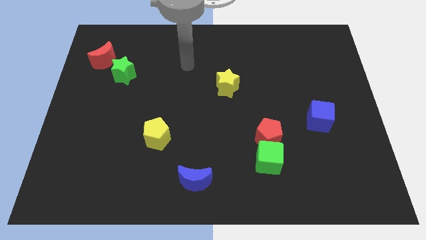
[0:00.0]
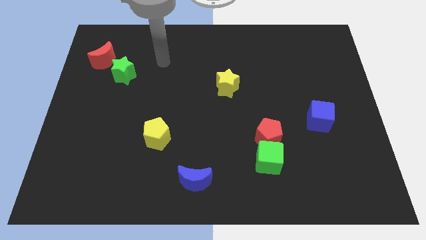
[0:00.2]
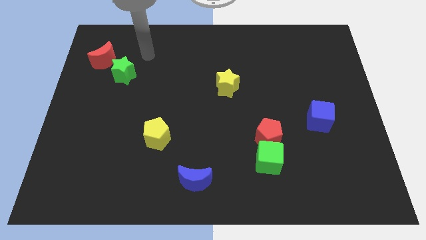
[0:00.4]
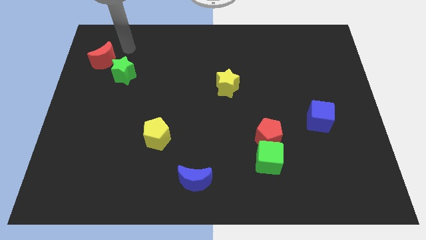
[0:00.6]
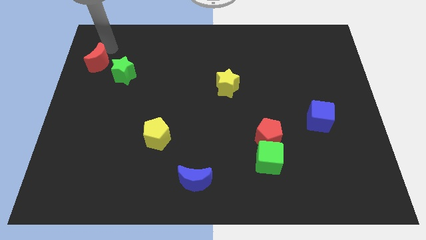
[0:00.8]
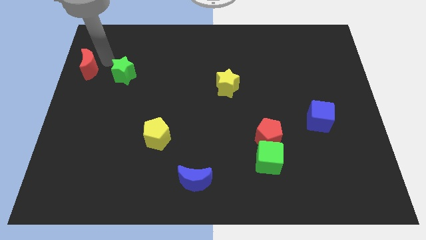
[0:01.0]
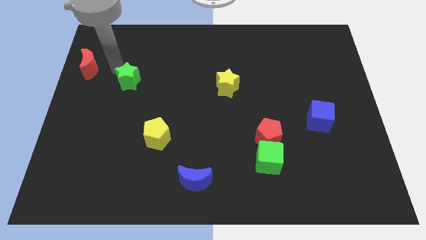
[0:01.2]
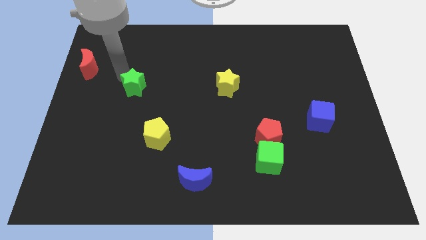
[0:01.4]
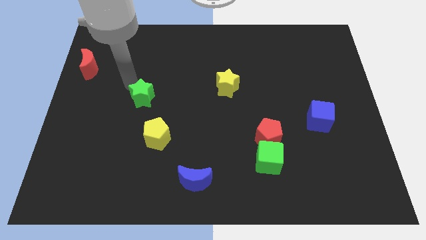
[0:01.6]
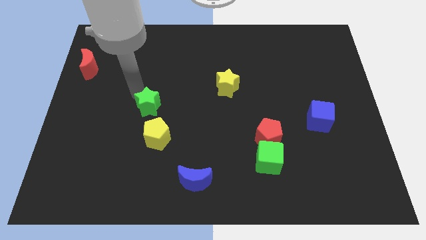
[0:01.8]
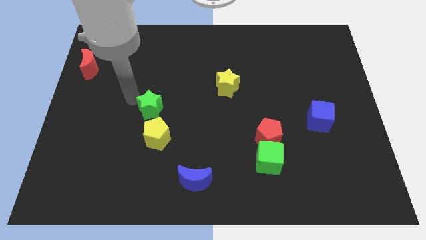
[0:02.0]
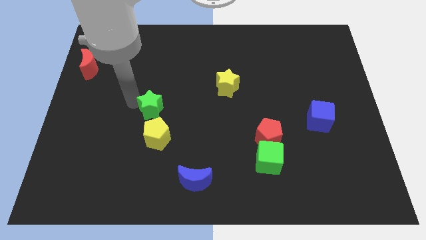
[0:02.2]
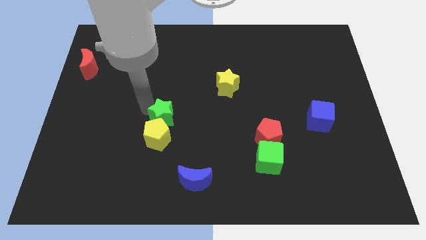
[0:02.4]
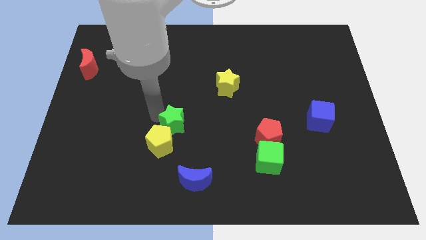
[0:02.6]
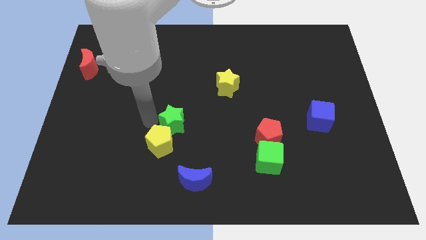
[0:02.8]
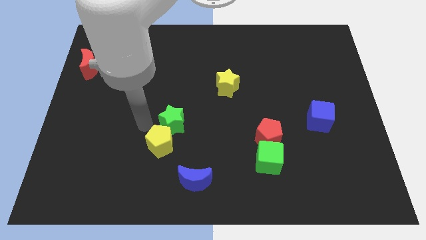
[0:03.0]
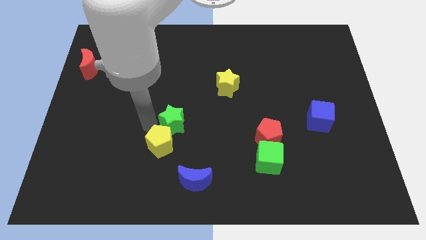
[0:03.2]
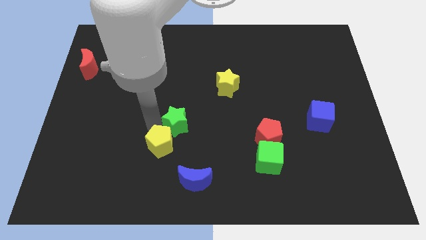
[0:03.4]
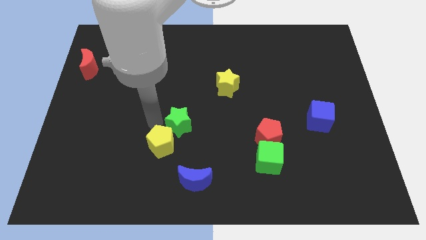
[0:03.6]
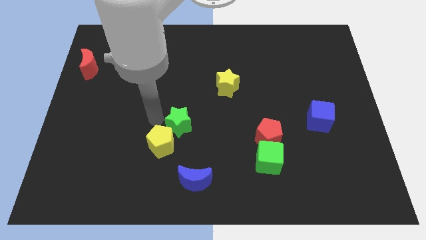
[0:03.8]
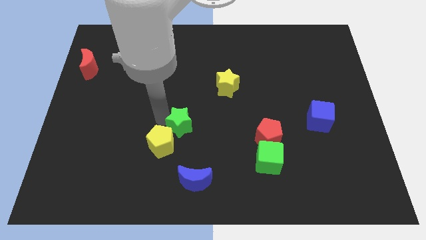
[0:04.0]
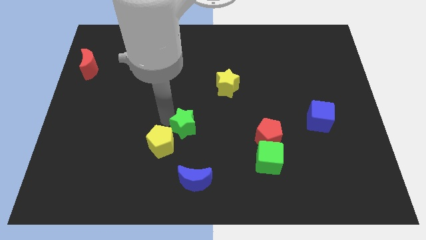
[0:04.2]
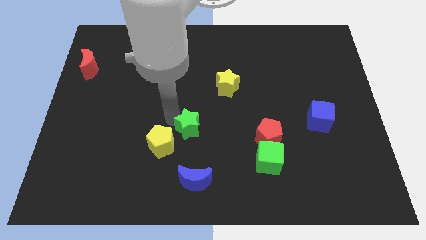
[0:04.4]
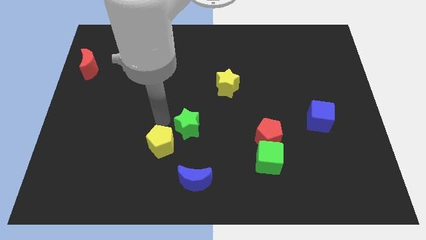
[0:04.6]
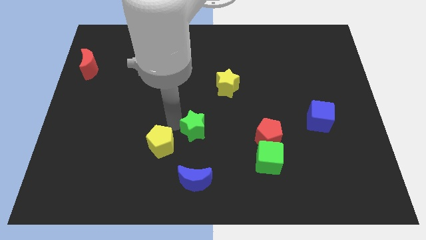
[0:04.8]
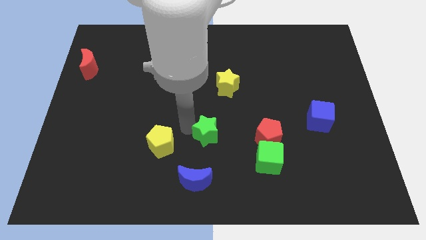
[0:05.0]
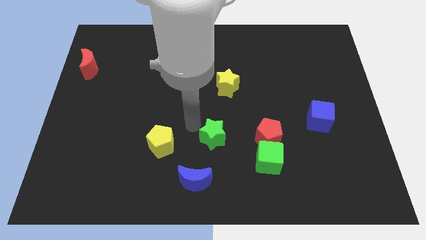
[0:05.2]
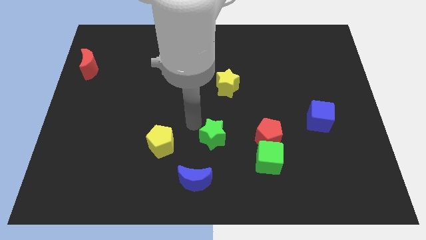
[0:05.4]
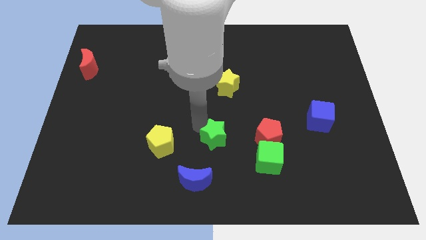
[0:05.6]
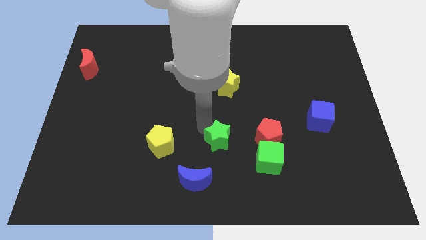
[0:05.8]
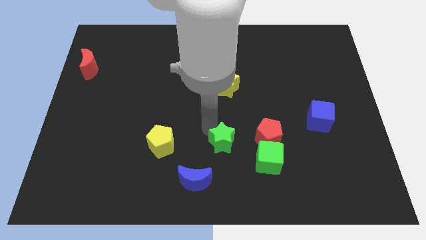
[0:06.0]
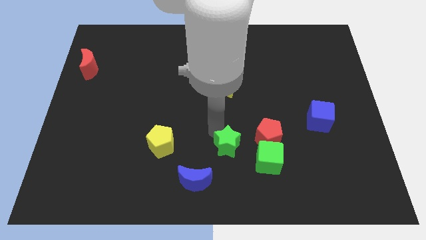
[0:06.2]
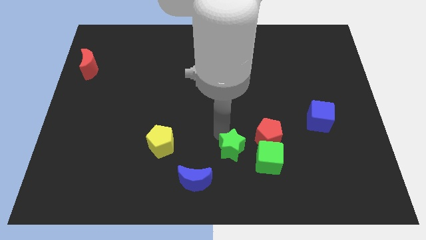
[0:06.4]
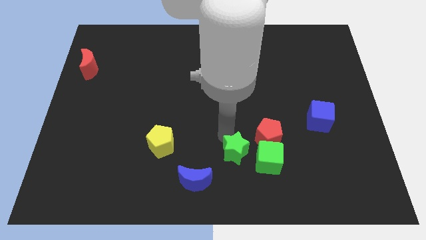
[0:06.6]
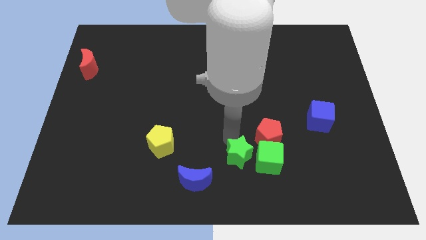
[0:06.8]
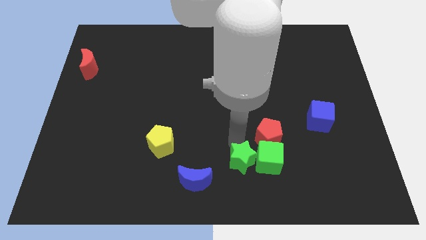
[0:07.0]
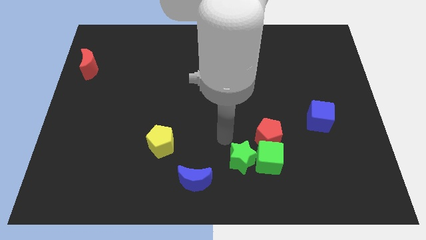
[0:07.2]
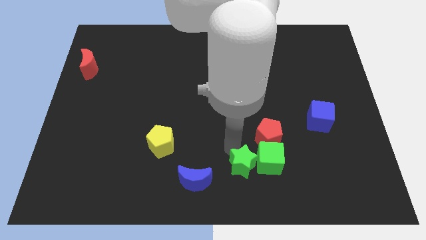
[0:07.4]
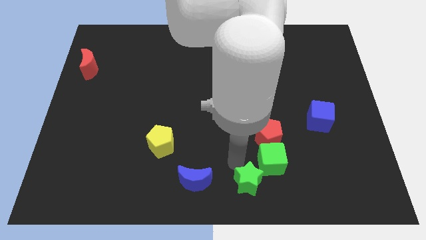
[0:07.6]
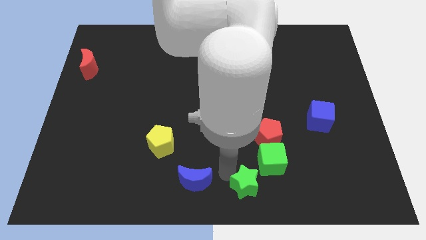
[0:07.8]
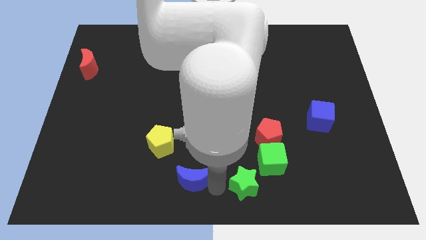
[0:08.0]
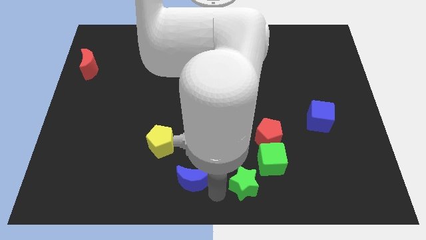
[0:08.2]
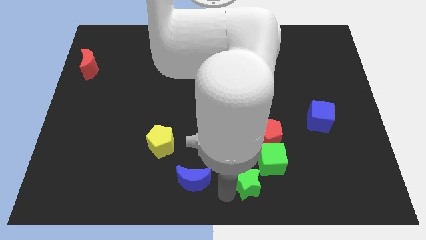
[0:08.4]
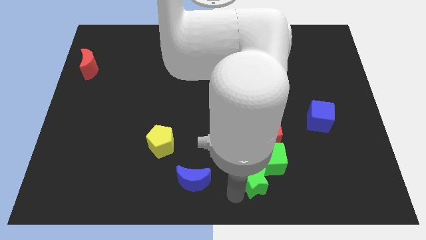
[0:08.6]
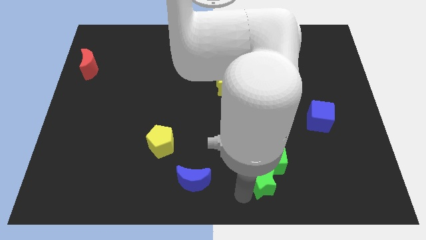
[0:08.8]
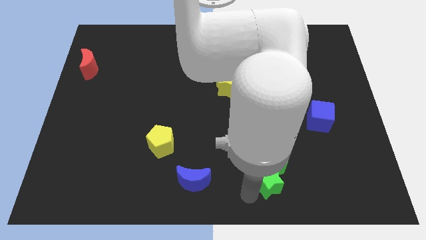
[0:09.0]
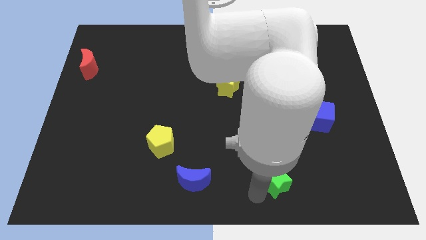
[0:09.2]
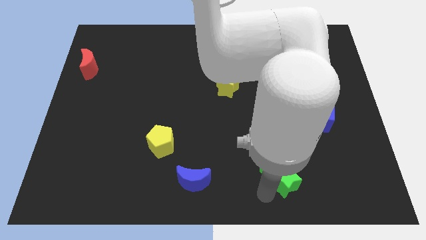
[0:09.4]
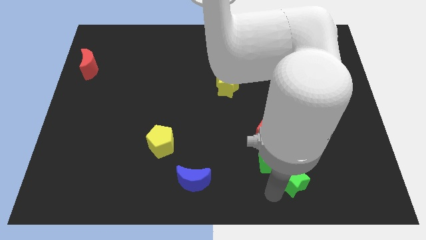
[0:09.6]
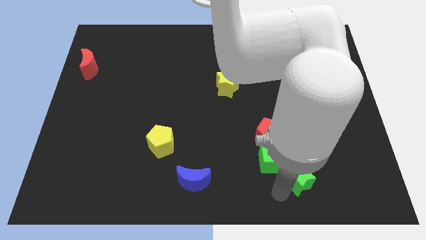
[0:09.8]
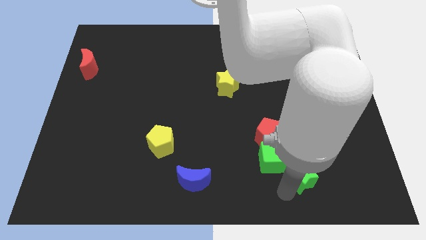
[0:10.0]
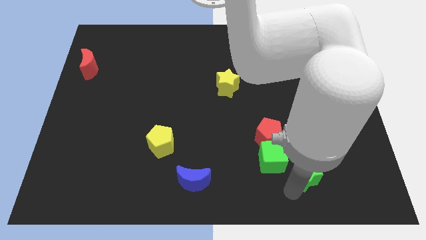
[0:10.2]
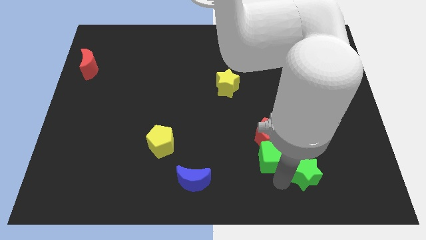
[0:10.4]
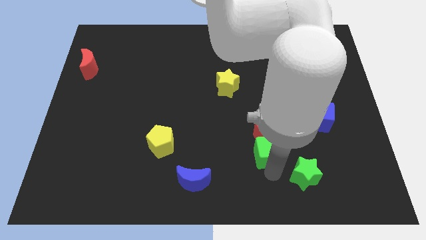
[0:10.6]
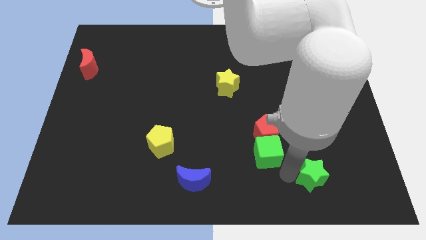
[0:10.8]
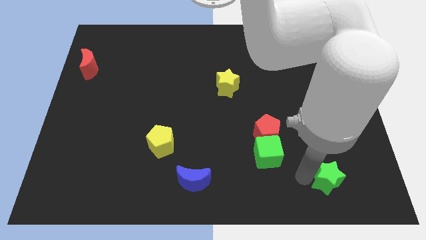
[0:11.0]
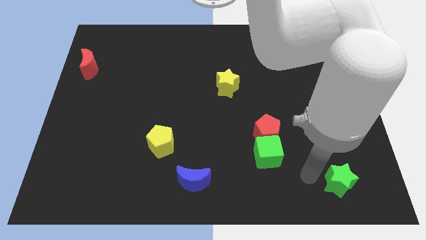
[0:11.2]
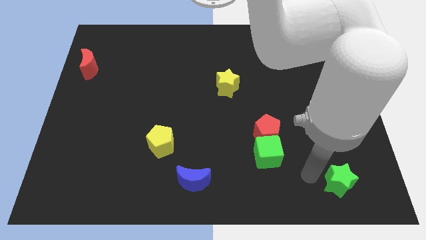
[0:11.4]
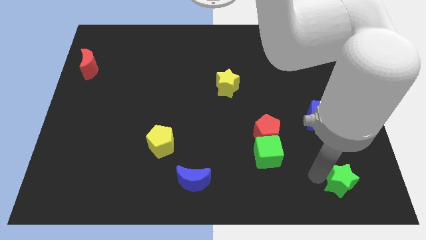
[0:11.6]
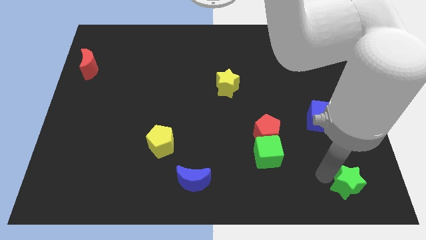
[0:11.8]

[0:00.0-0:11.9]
move the green star to the bottom right corner

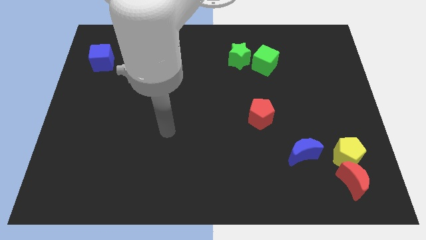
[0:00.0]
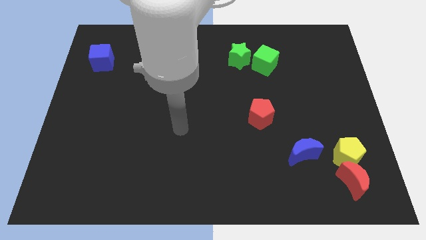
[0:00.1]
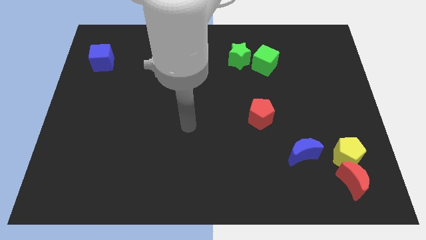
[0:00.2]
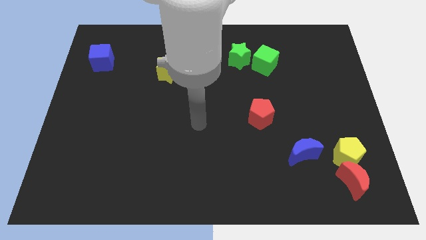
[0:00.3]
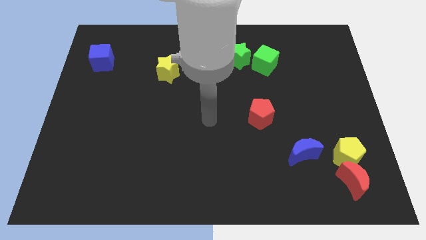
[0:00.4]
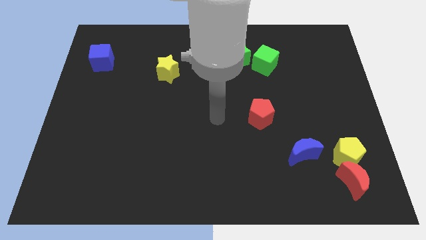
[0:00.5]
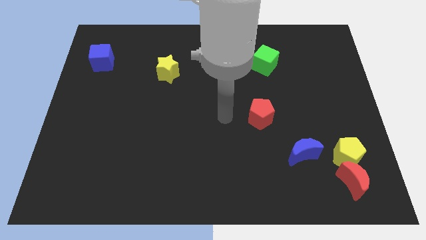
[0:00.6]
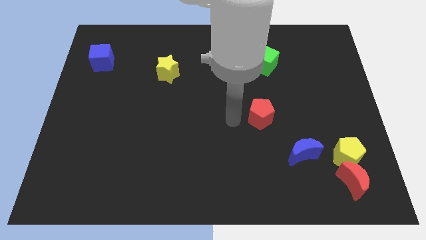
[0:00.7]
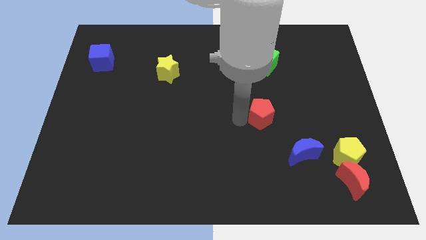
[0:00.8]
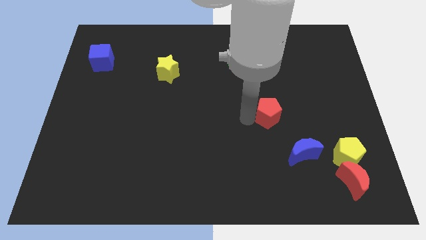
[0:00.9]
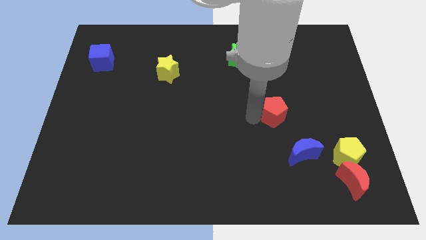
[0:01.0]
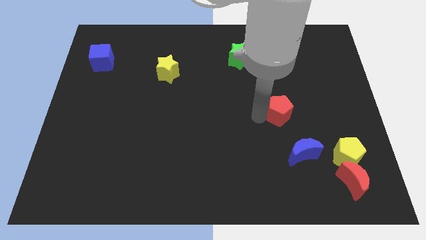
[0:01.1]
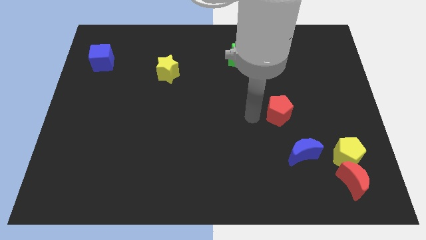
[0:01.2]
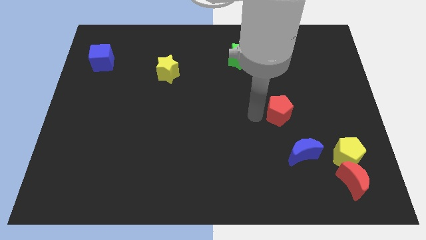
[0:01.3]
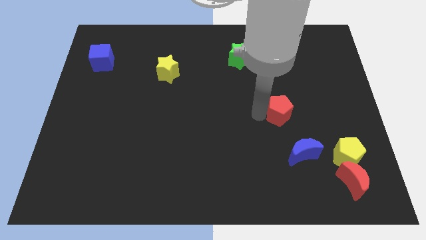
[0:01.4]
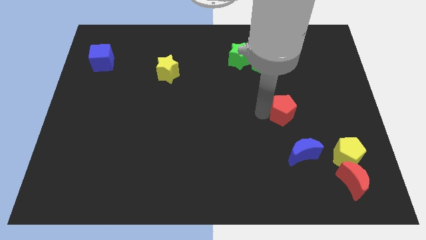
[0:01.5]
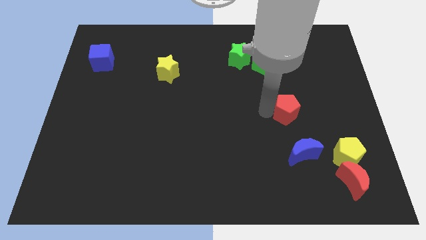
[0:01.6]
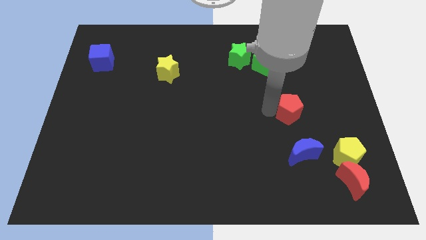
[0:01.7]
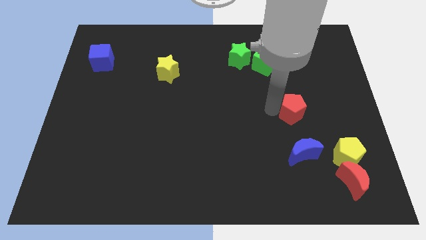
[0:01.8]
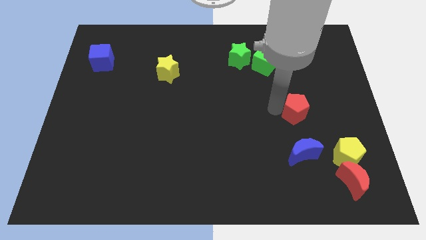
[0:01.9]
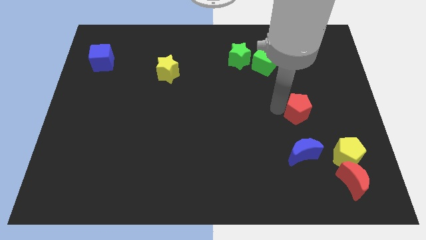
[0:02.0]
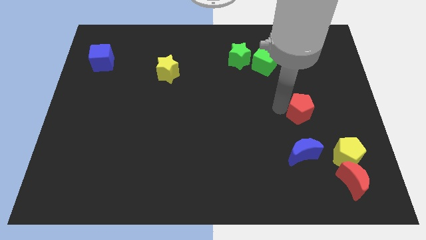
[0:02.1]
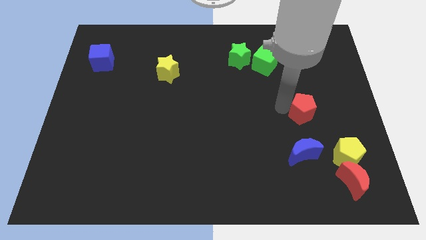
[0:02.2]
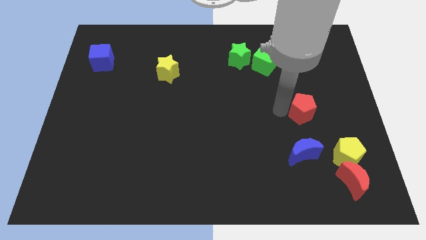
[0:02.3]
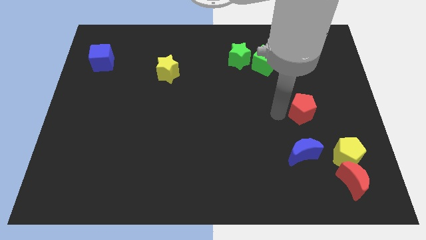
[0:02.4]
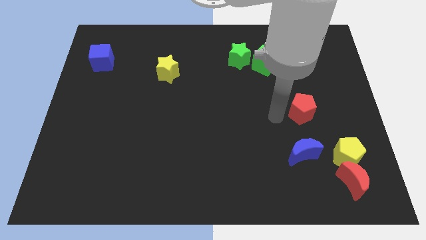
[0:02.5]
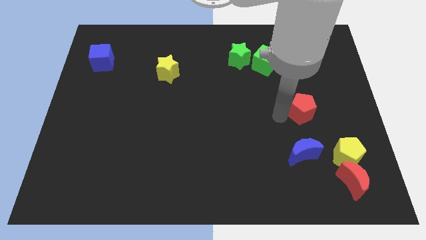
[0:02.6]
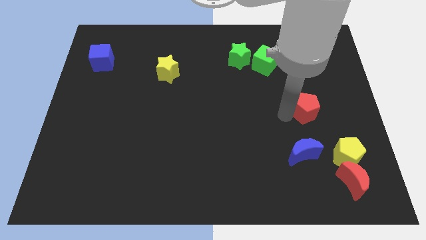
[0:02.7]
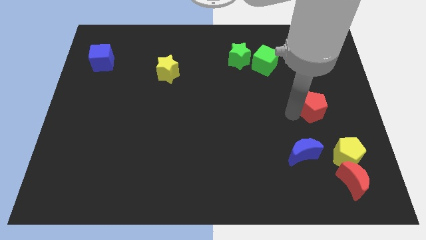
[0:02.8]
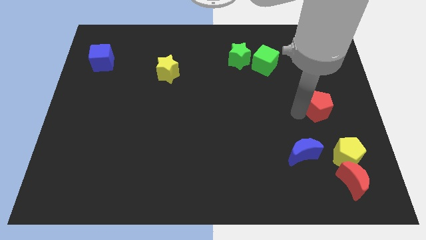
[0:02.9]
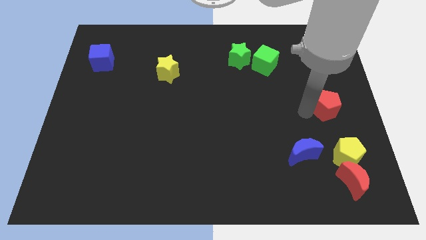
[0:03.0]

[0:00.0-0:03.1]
slide the red pentagon to the center right
